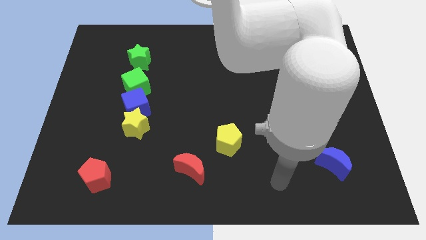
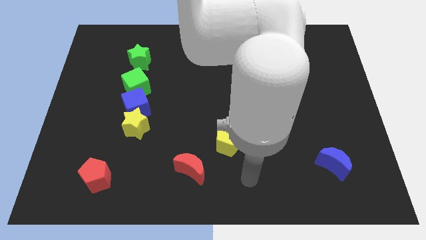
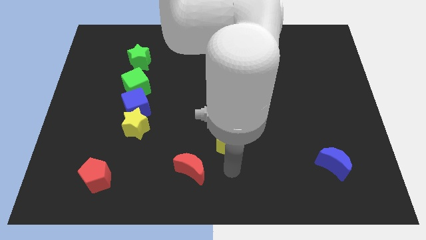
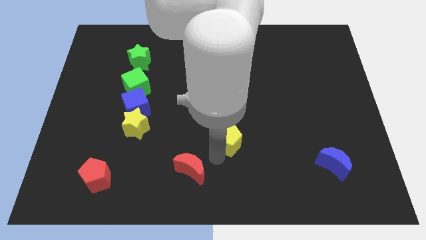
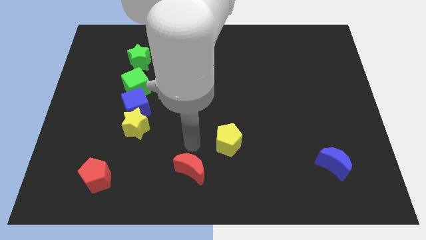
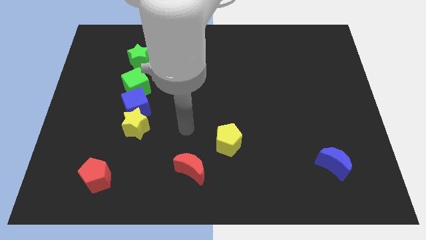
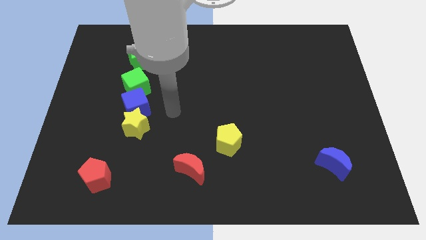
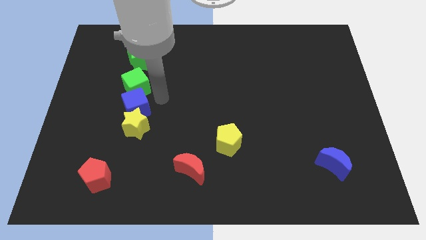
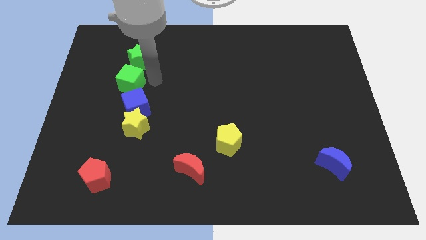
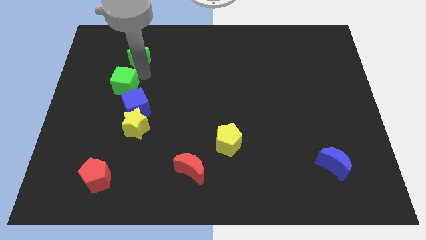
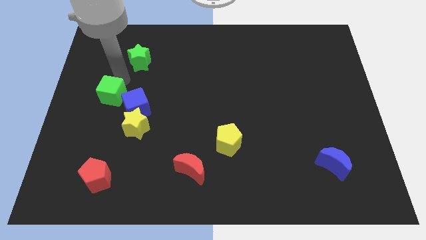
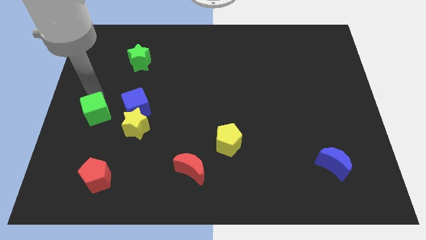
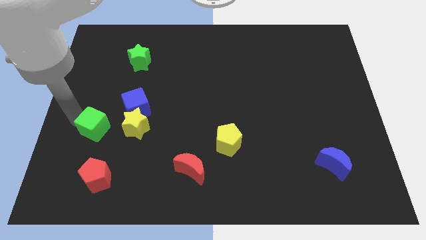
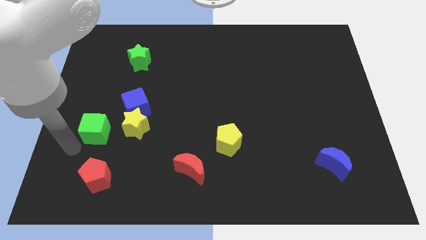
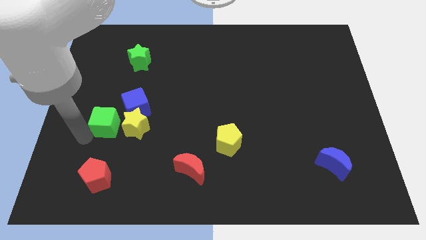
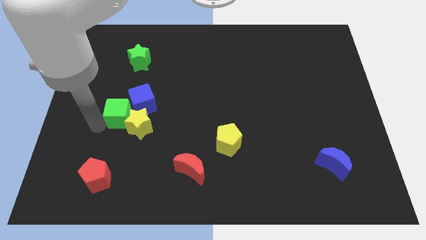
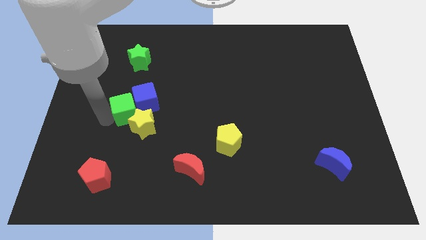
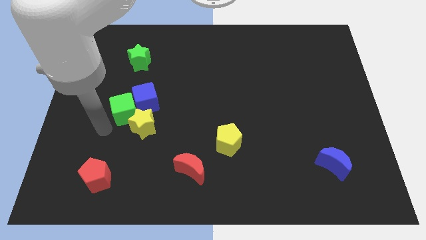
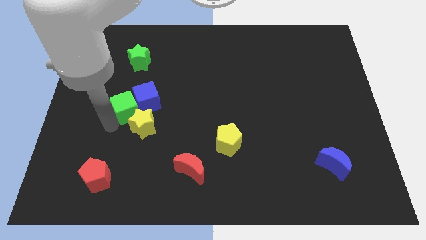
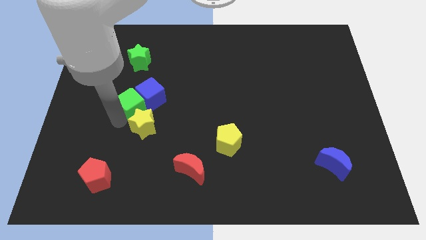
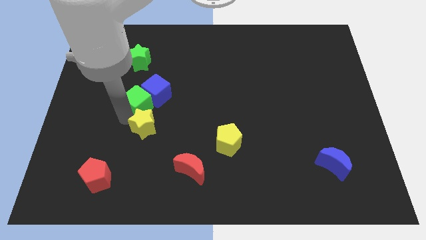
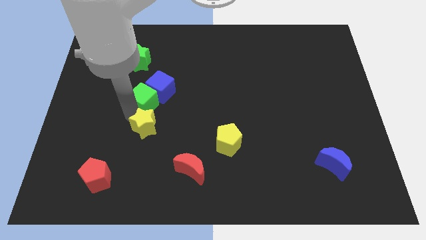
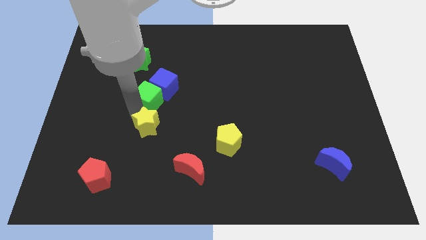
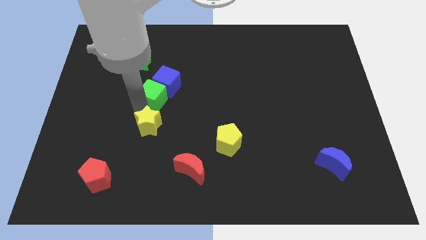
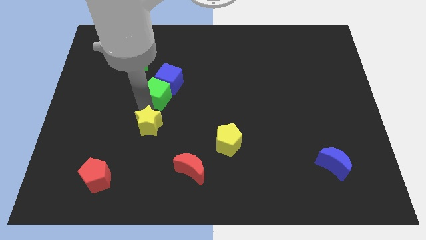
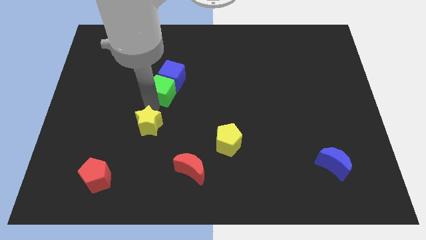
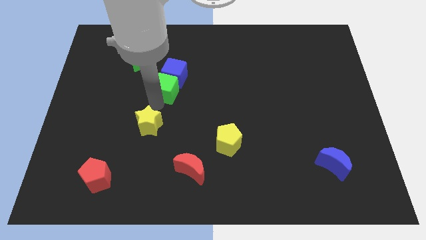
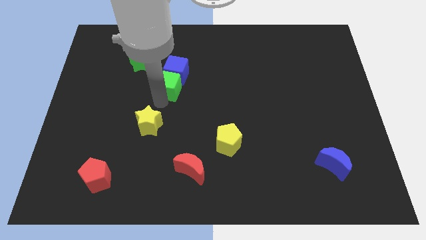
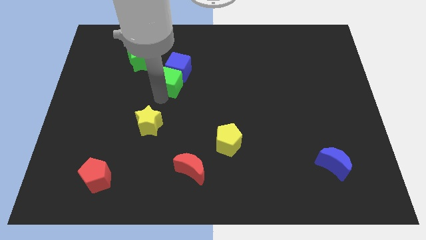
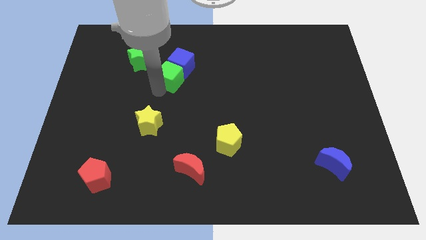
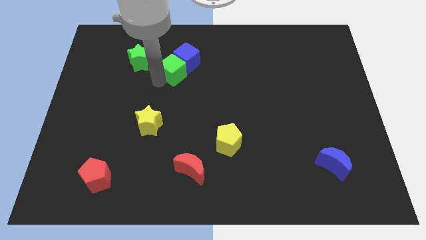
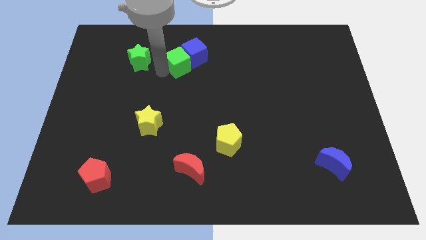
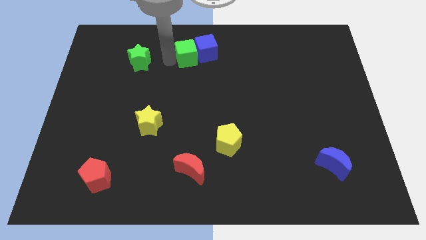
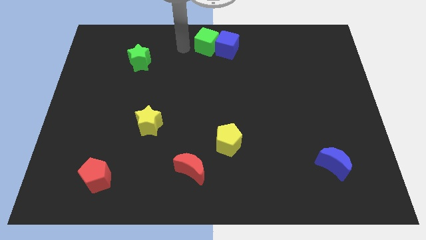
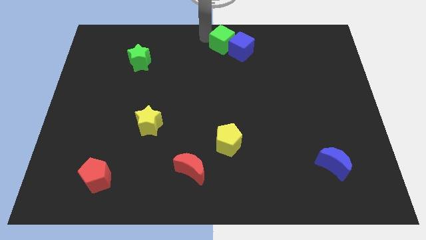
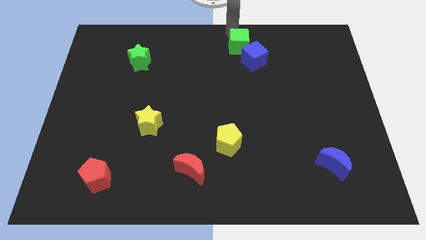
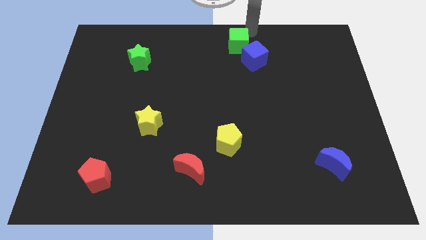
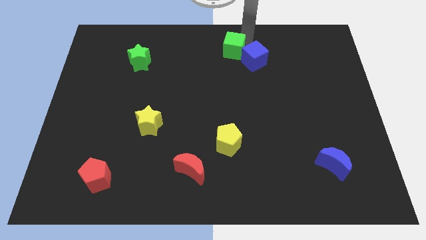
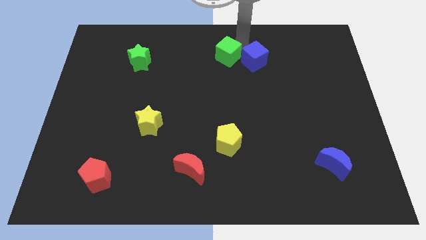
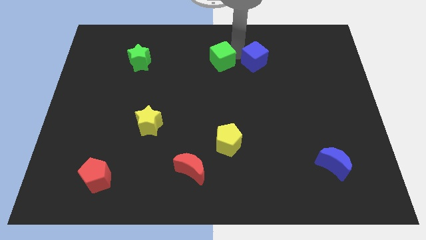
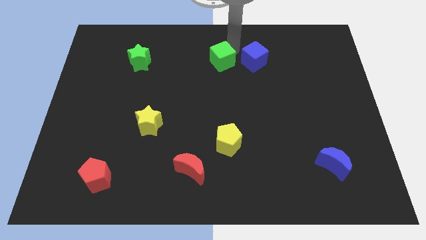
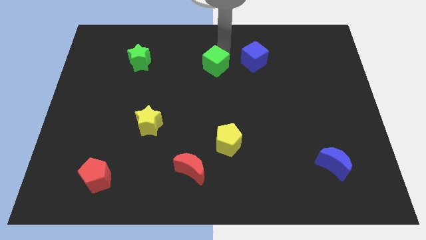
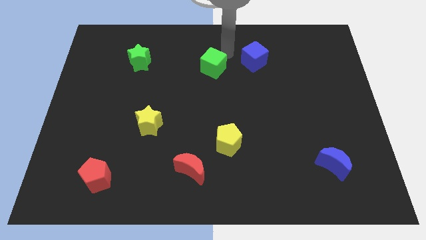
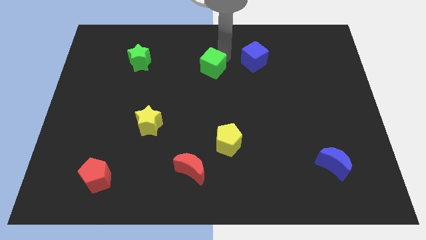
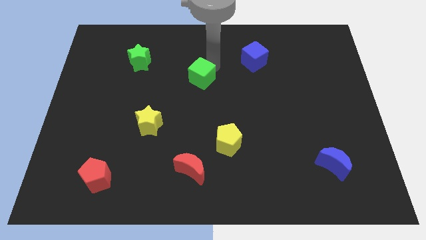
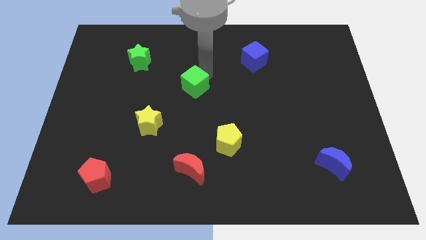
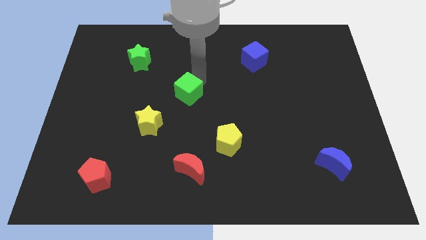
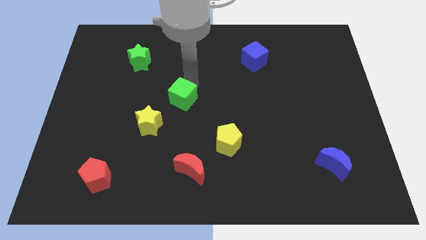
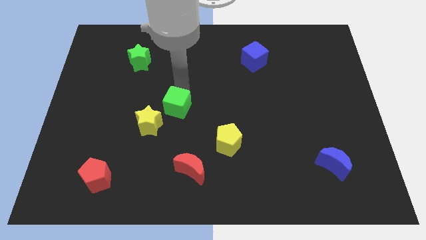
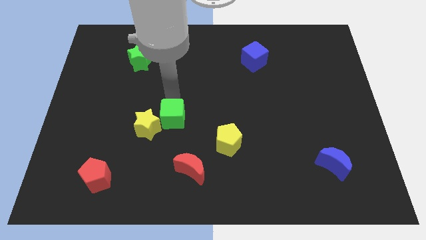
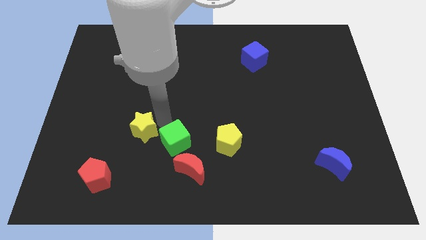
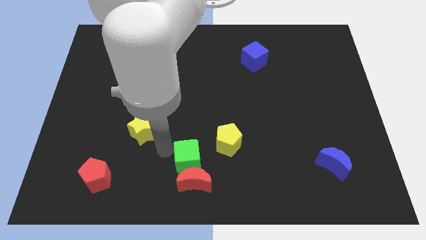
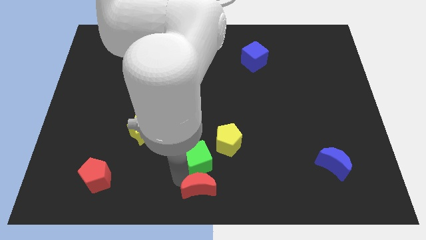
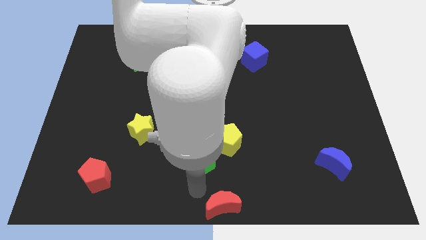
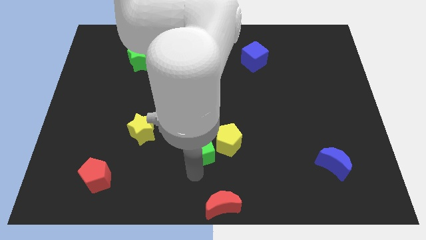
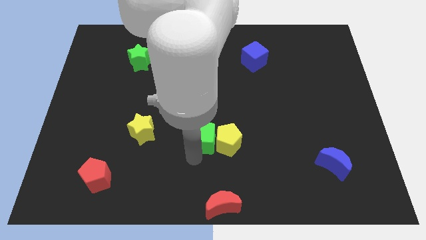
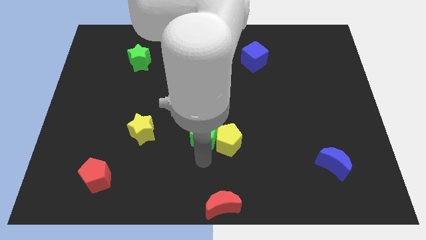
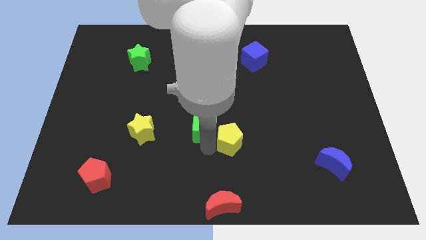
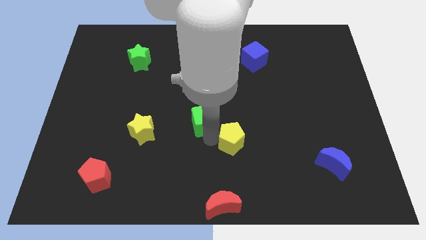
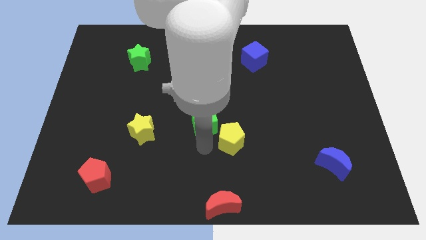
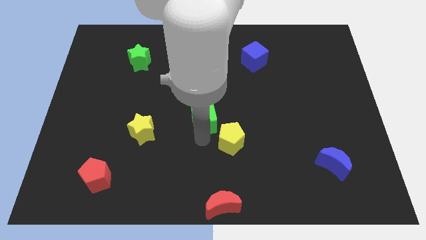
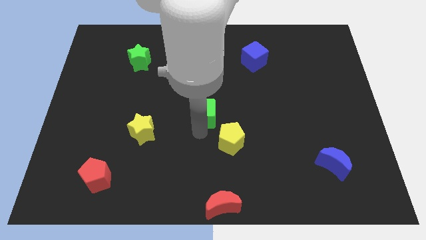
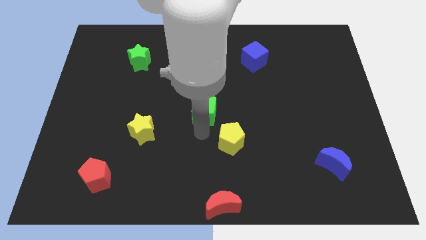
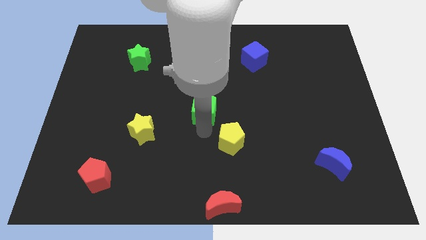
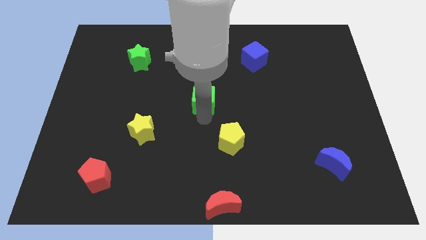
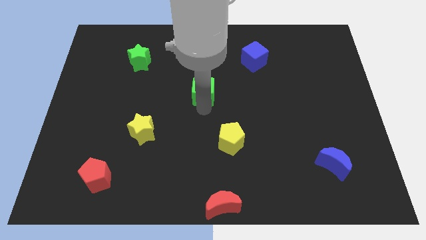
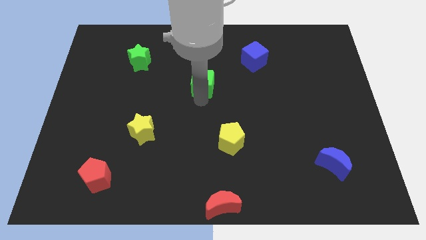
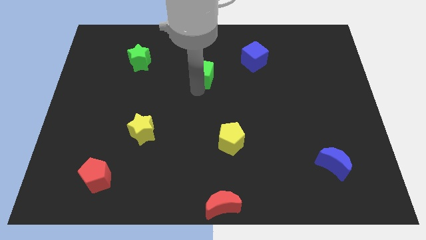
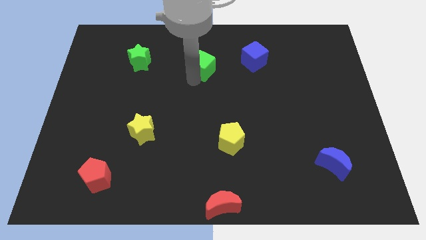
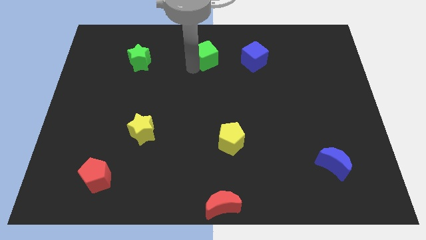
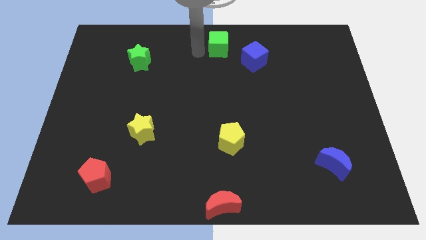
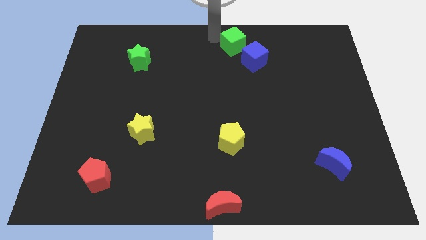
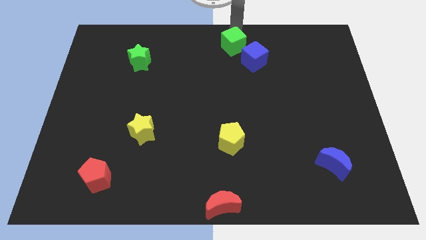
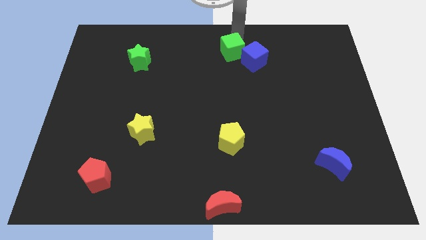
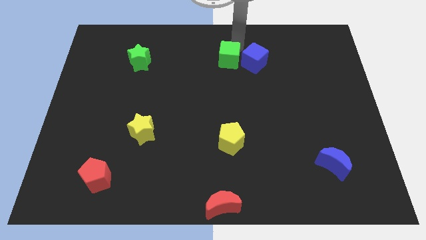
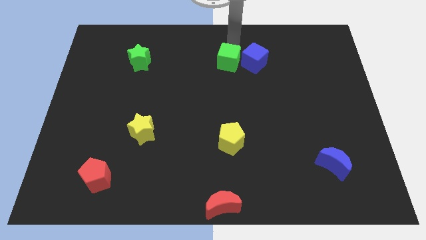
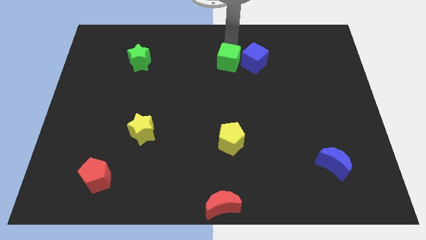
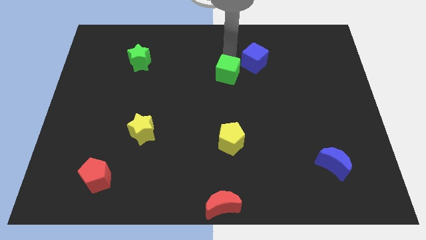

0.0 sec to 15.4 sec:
move the green cube right

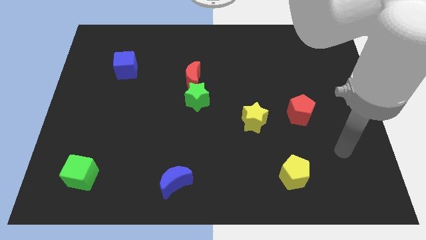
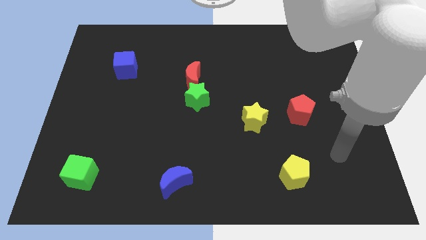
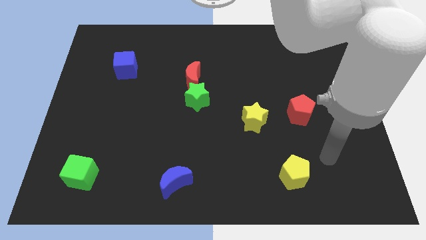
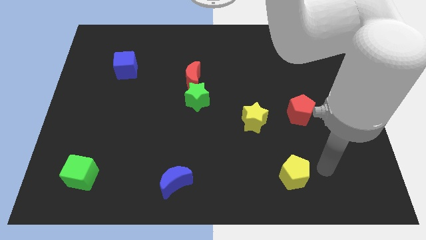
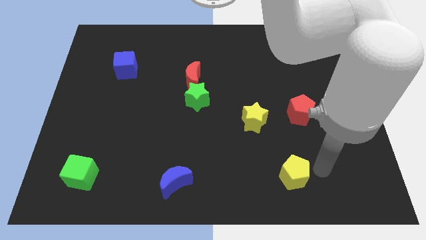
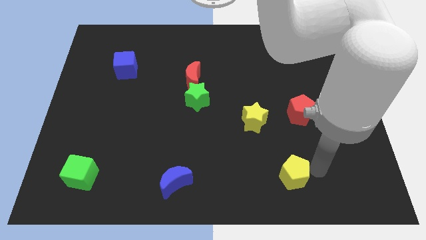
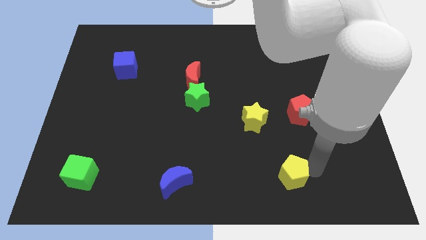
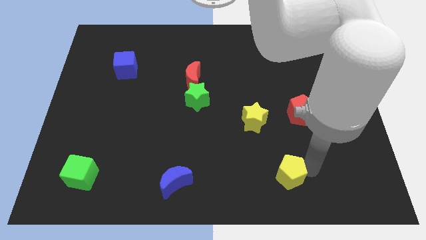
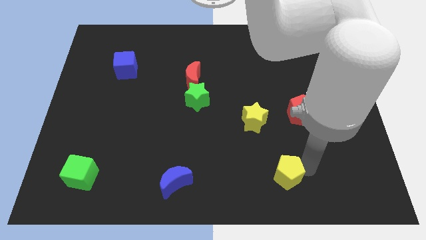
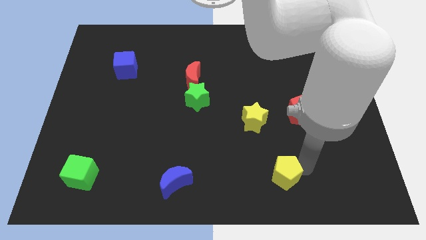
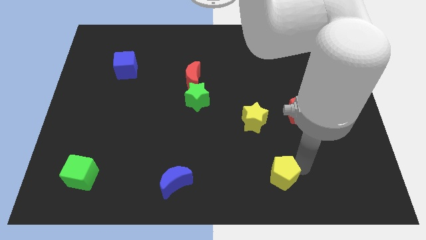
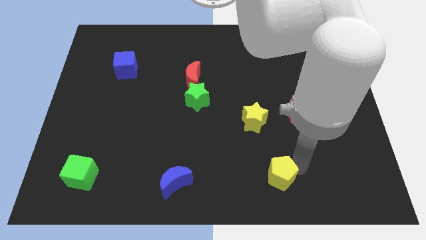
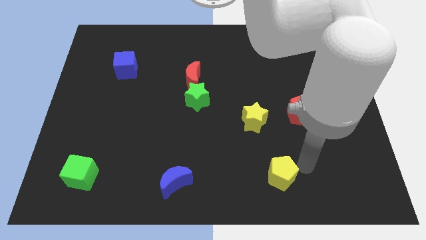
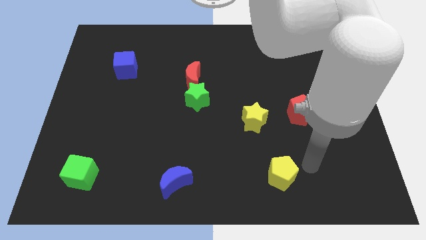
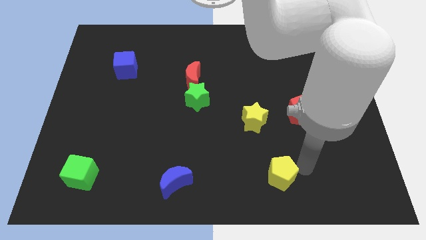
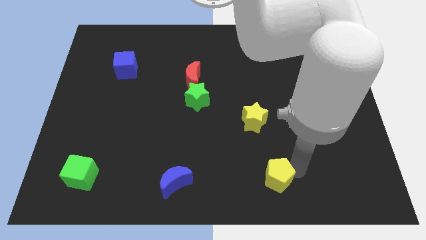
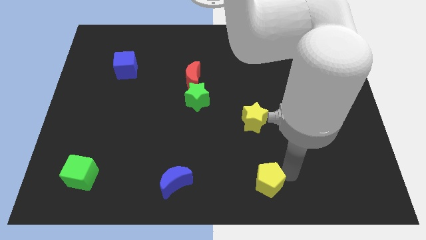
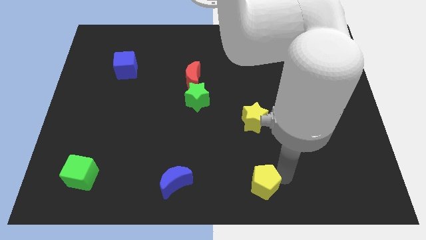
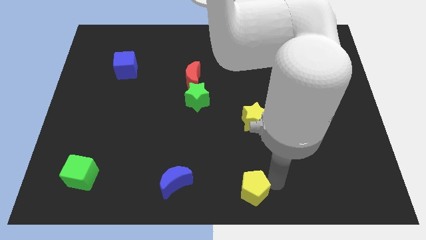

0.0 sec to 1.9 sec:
slightly push the yellow pentagon left
